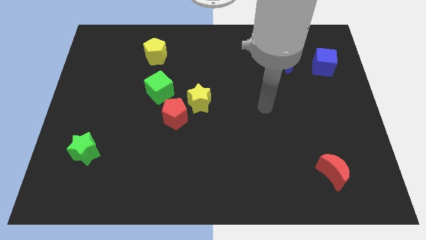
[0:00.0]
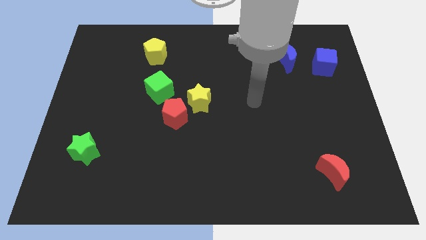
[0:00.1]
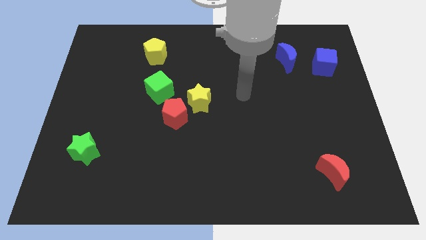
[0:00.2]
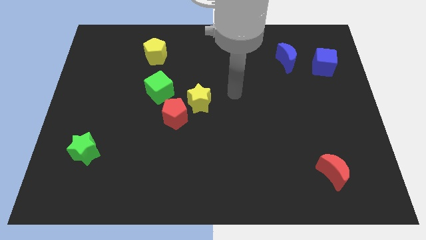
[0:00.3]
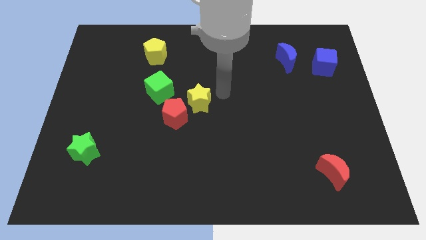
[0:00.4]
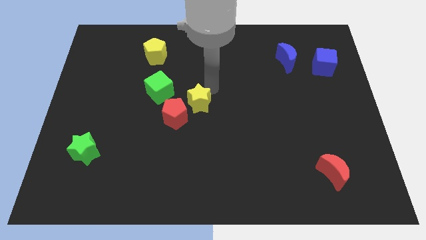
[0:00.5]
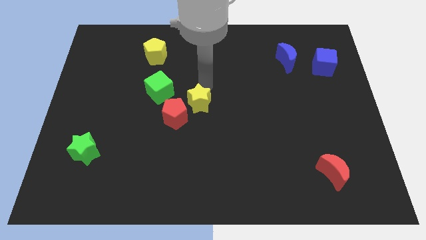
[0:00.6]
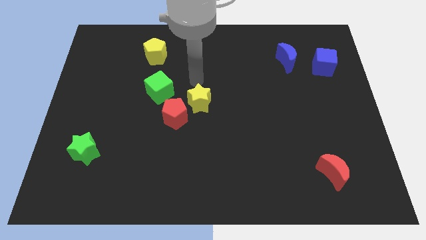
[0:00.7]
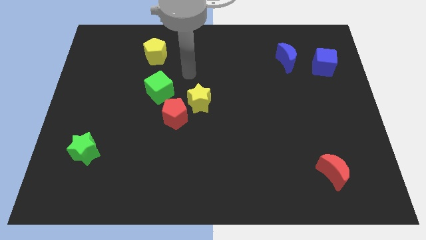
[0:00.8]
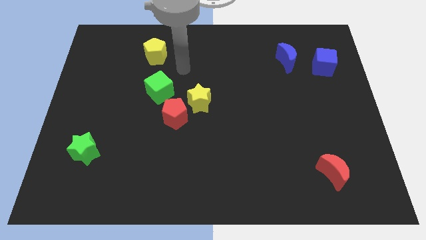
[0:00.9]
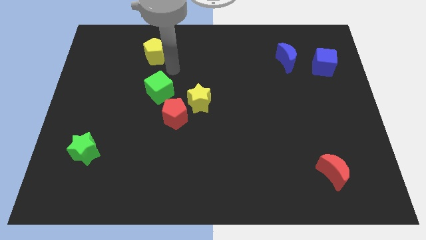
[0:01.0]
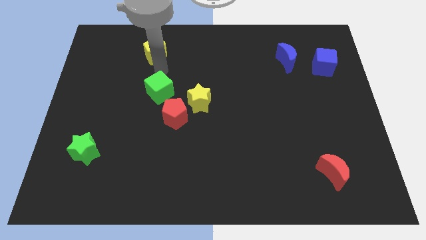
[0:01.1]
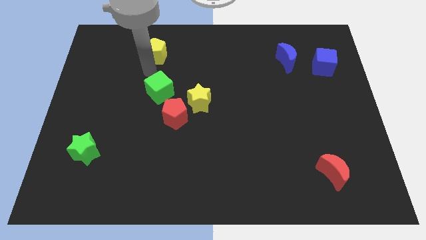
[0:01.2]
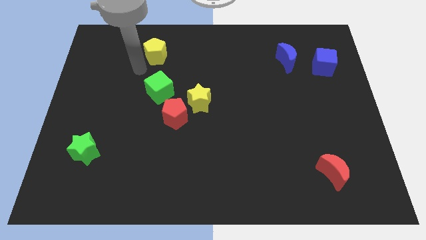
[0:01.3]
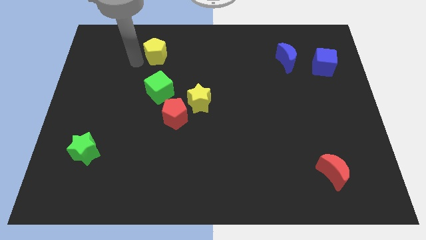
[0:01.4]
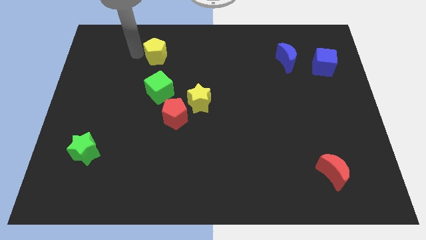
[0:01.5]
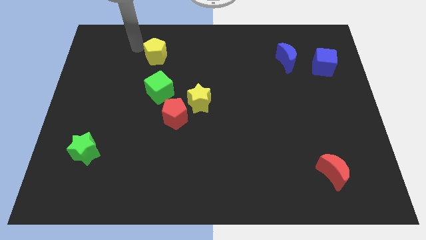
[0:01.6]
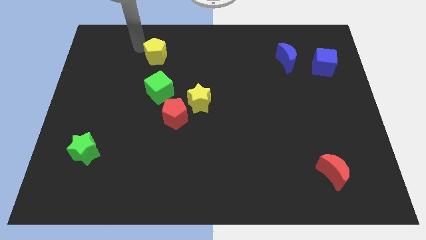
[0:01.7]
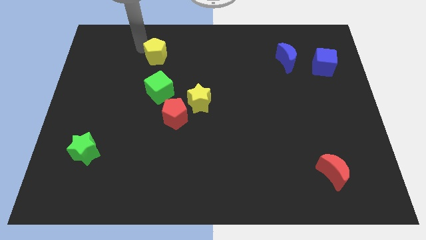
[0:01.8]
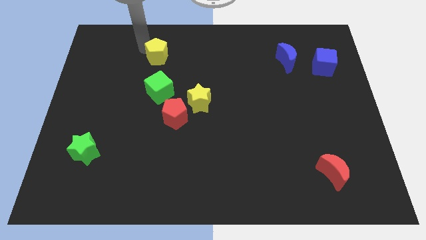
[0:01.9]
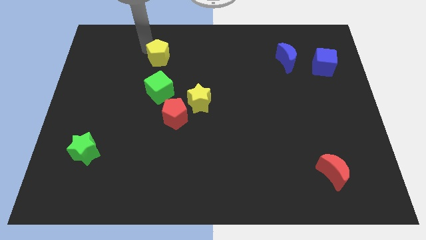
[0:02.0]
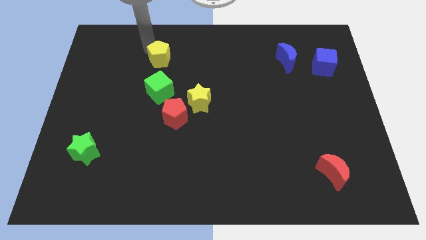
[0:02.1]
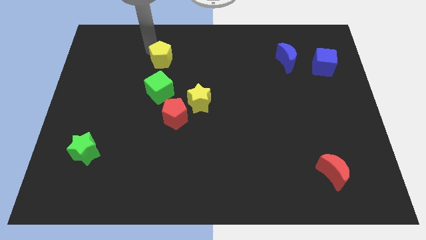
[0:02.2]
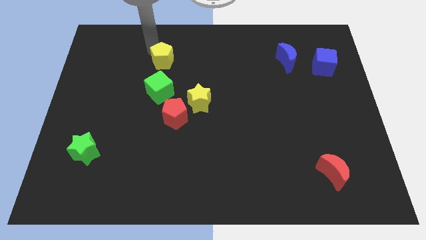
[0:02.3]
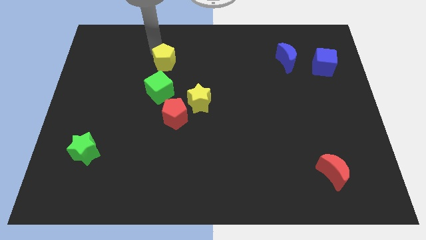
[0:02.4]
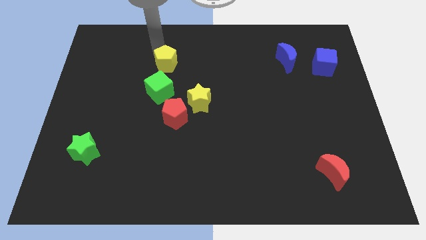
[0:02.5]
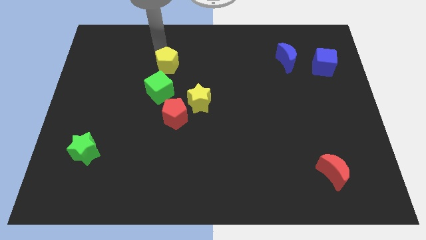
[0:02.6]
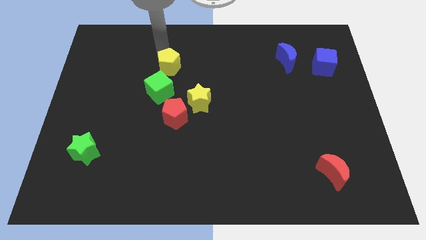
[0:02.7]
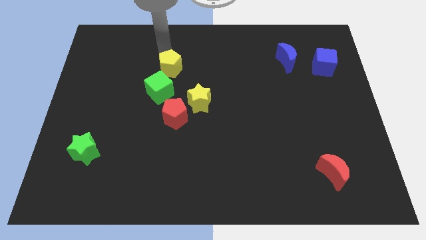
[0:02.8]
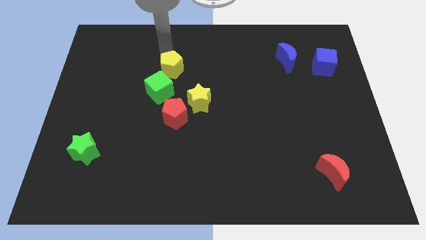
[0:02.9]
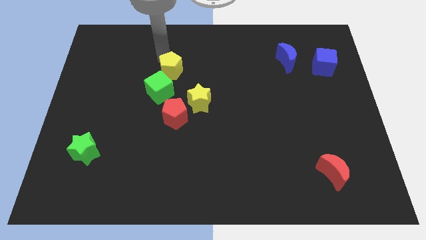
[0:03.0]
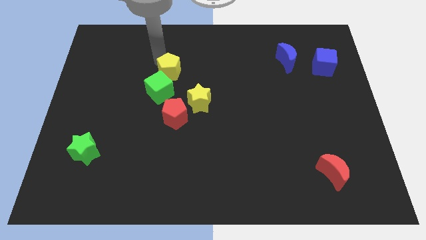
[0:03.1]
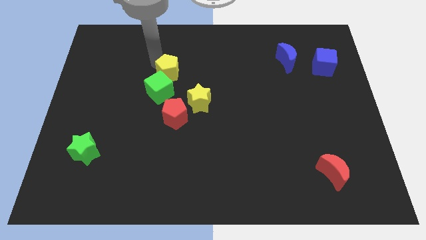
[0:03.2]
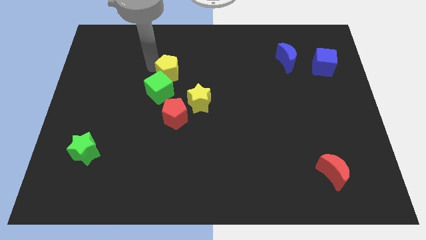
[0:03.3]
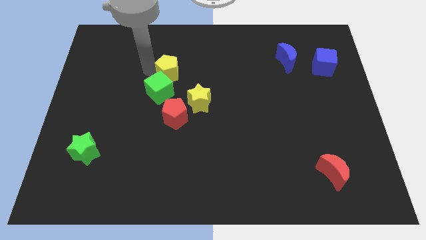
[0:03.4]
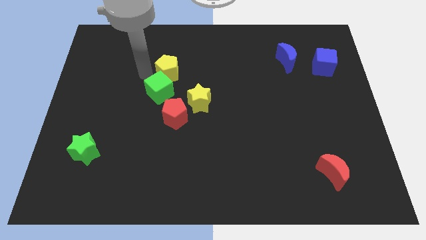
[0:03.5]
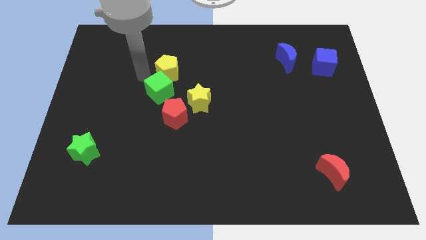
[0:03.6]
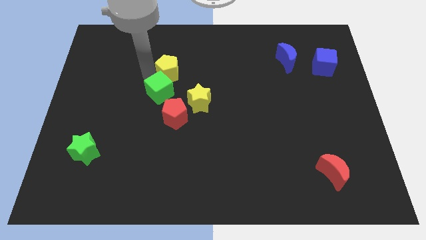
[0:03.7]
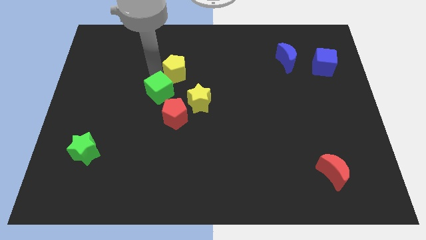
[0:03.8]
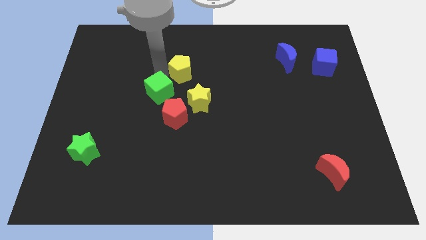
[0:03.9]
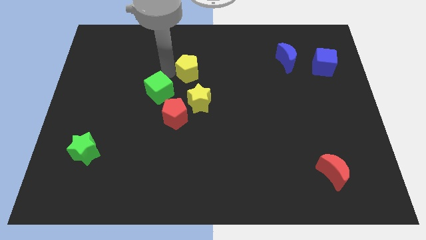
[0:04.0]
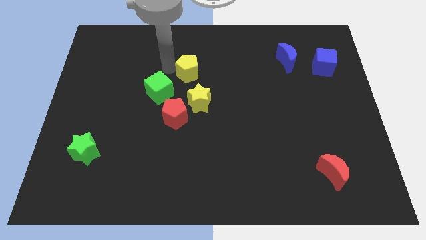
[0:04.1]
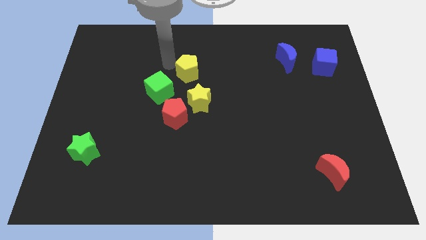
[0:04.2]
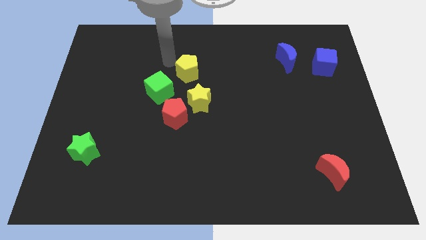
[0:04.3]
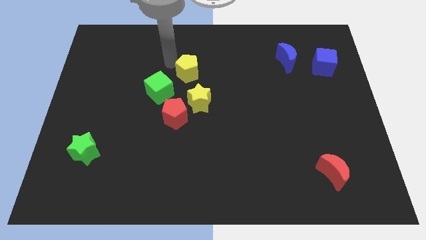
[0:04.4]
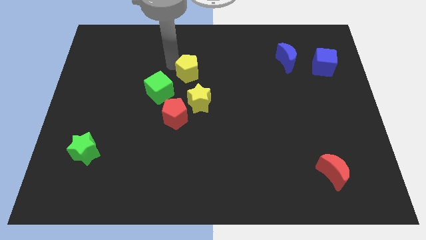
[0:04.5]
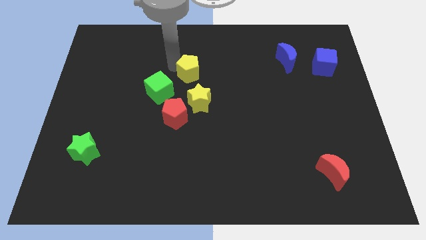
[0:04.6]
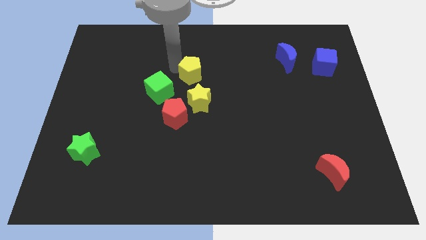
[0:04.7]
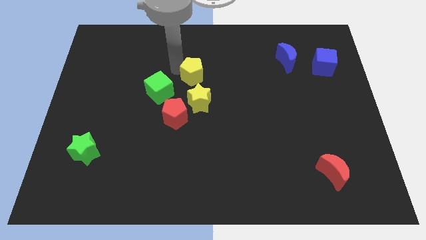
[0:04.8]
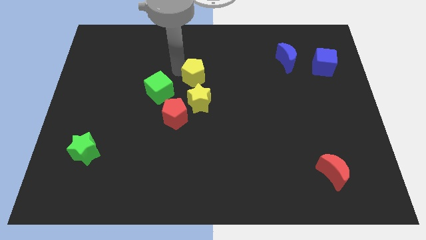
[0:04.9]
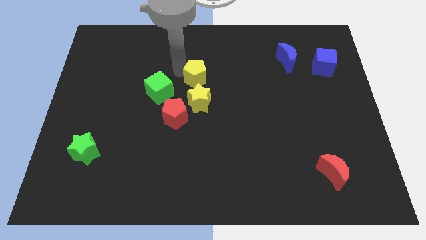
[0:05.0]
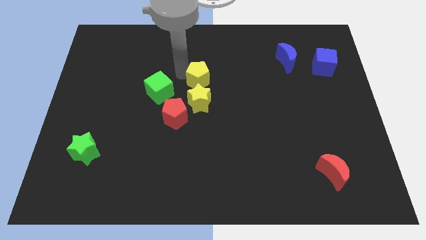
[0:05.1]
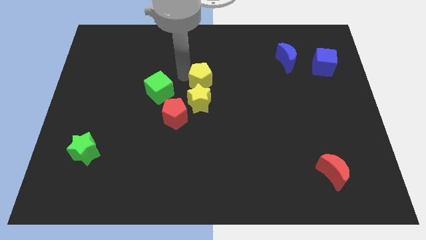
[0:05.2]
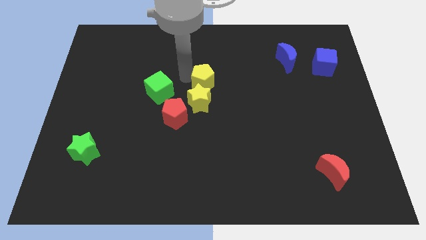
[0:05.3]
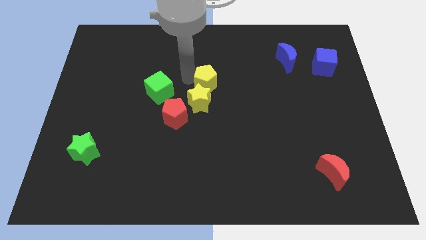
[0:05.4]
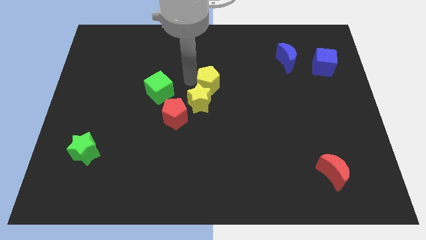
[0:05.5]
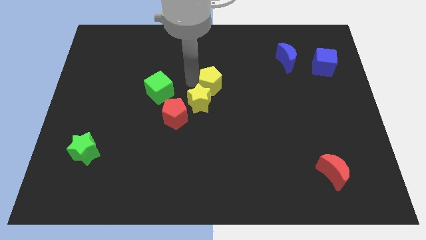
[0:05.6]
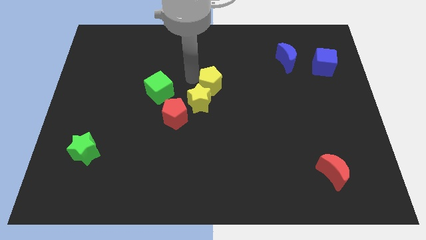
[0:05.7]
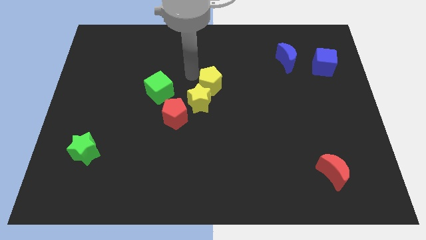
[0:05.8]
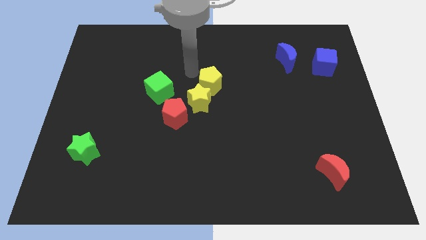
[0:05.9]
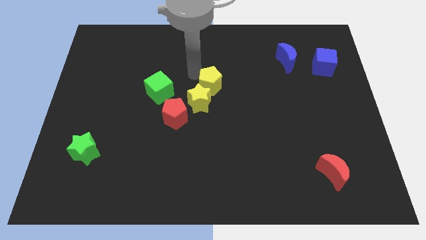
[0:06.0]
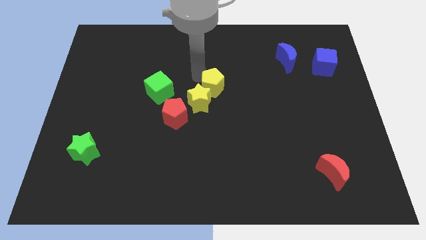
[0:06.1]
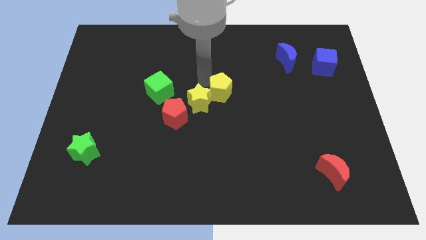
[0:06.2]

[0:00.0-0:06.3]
push the yellow pentagon to the right side of the yellow star
